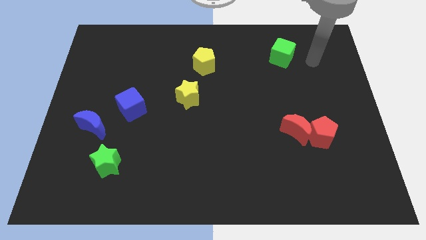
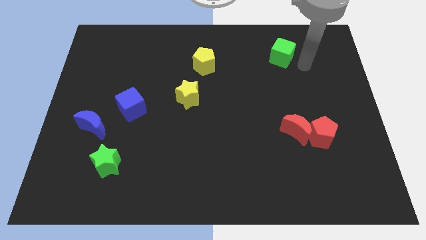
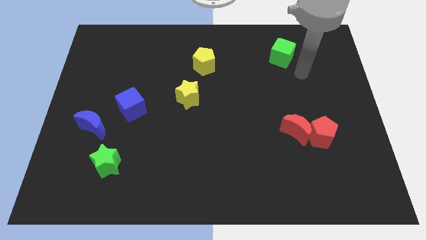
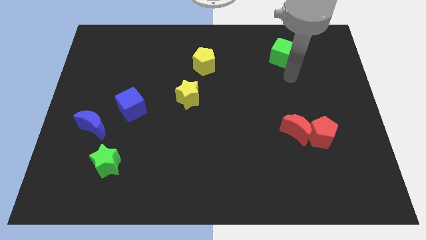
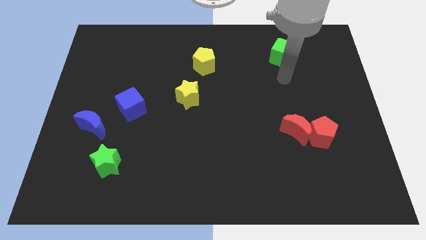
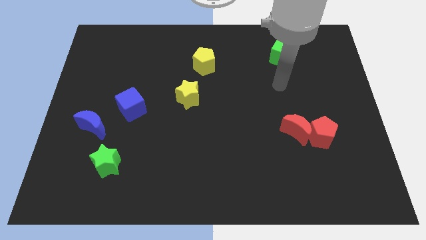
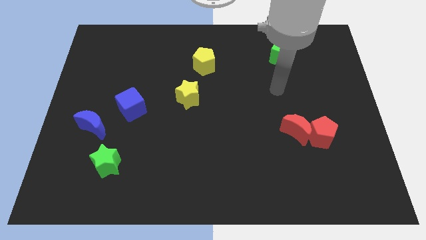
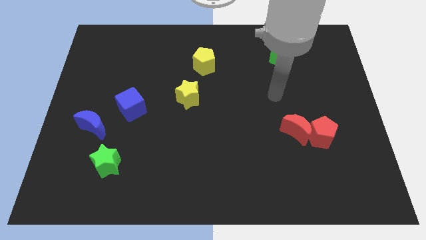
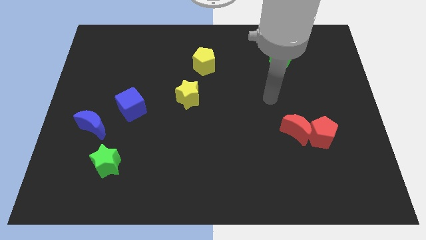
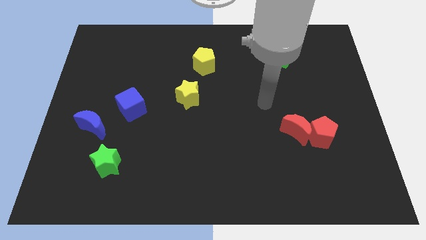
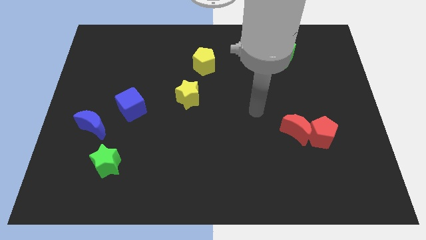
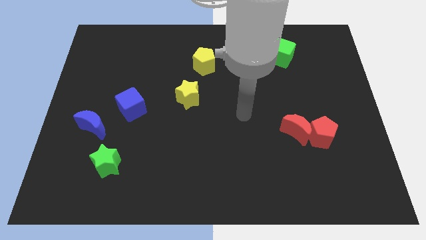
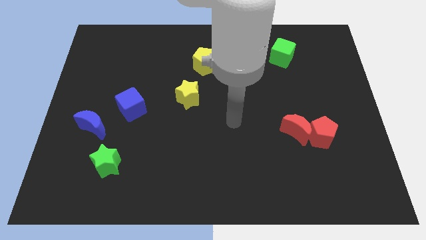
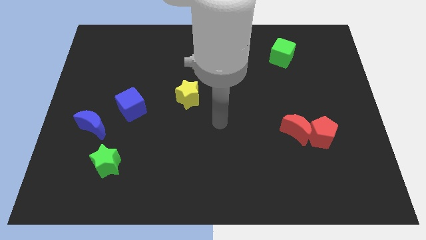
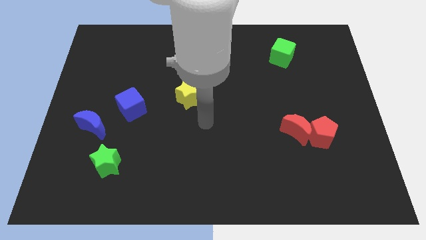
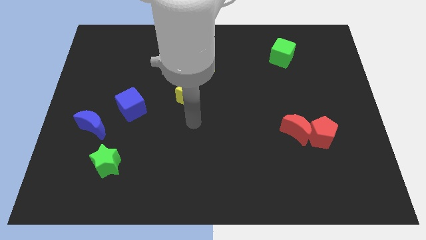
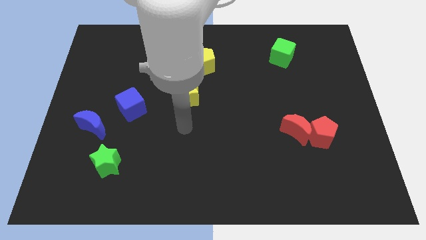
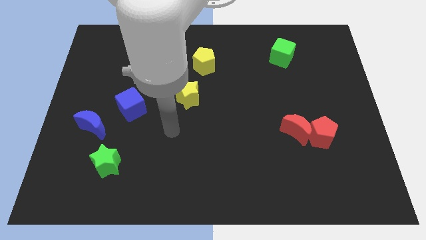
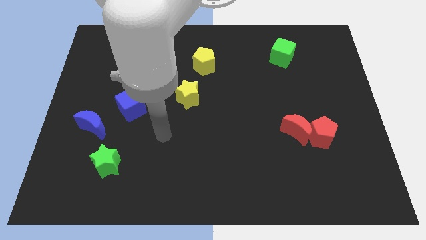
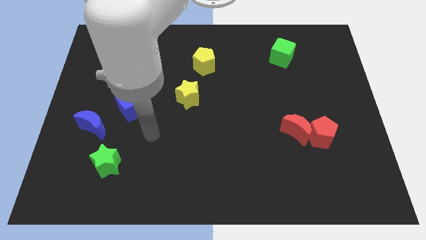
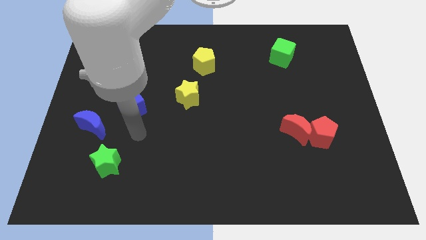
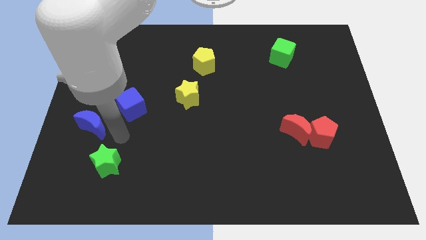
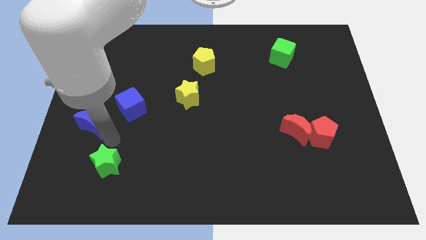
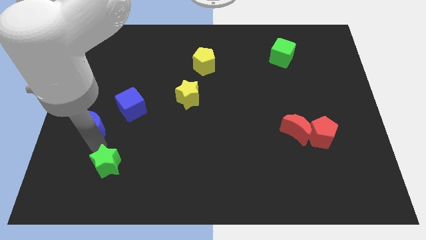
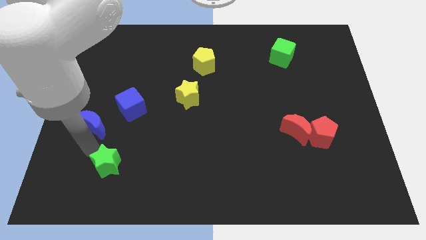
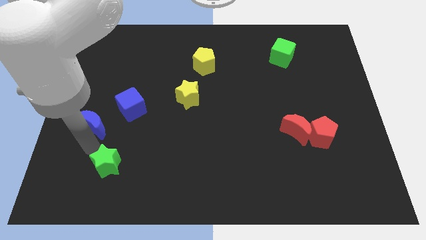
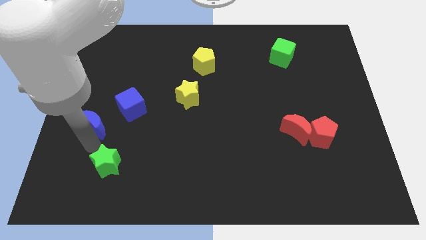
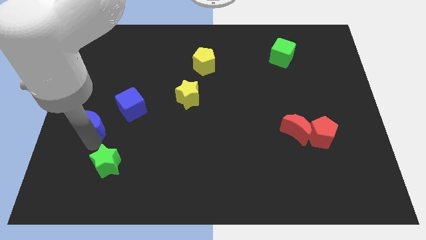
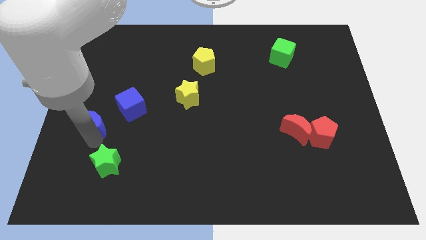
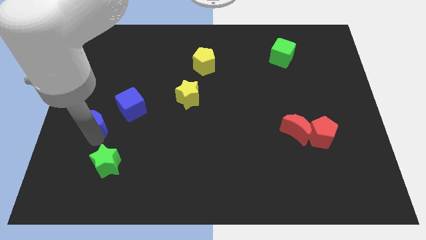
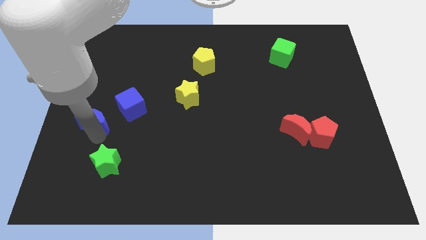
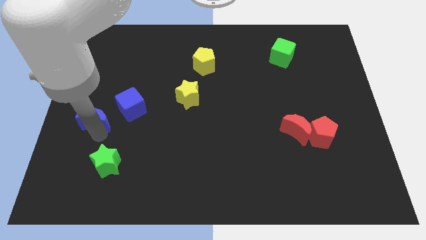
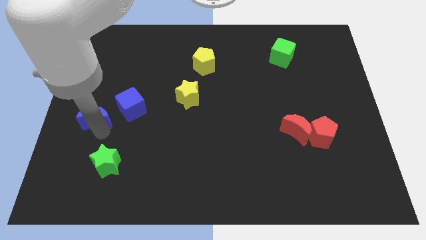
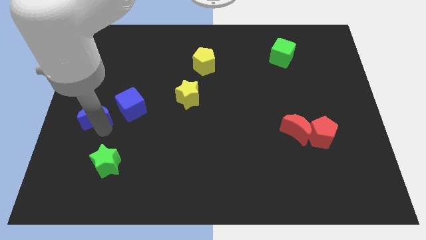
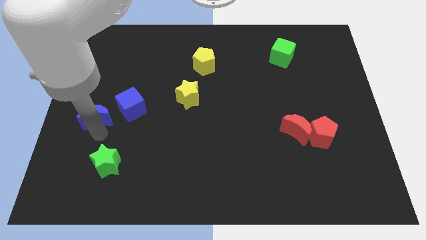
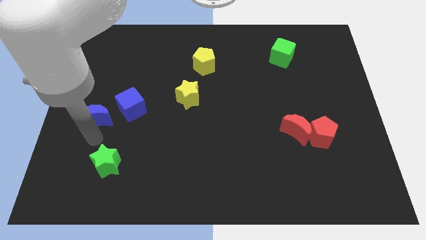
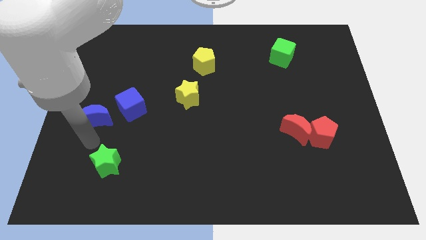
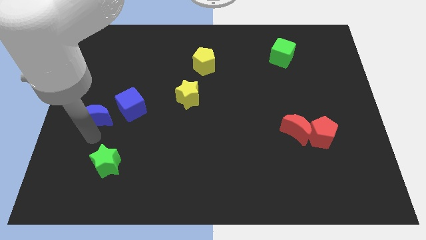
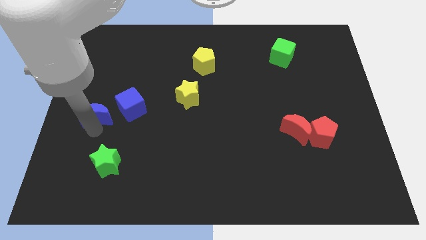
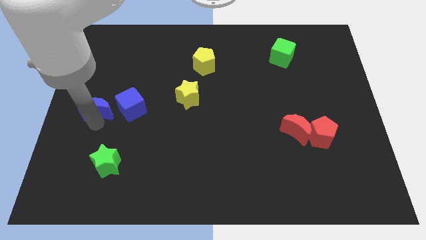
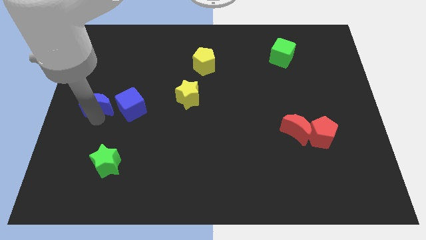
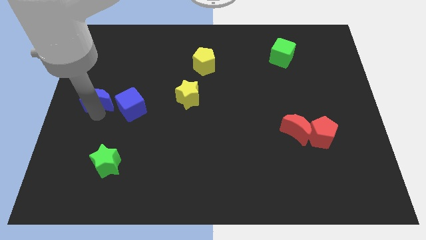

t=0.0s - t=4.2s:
slightly move the blue moon up

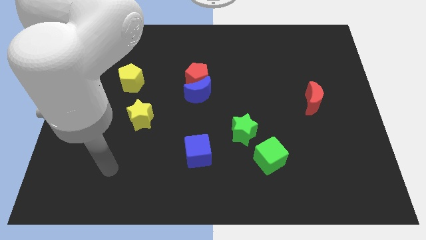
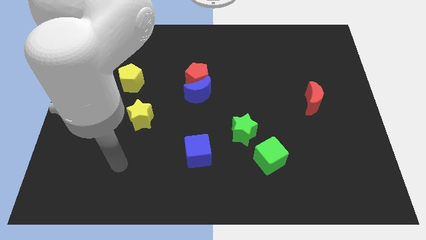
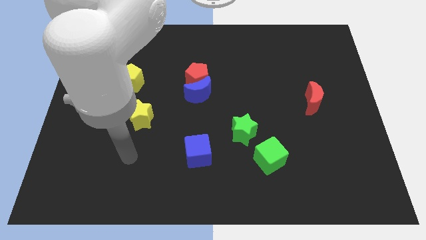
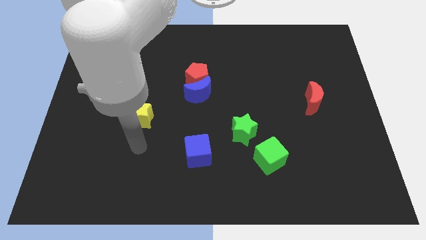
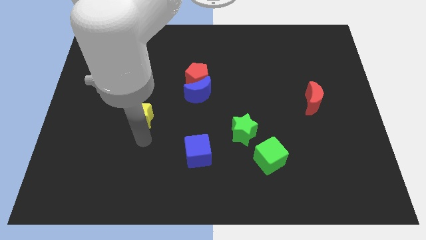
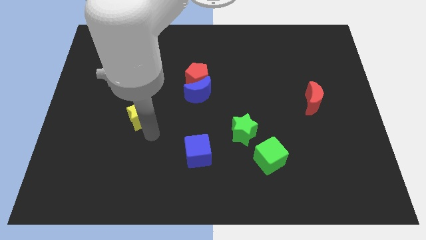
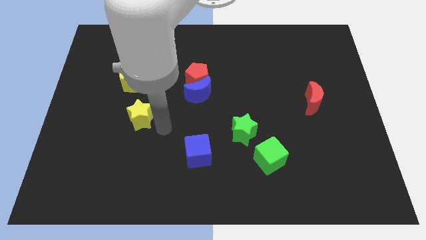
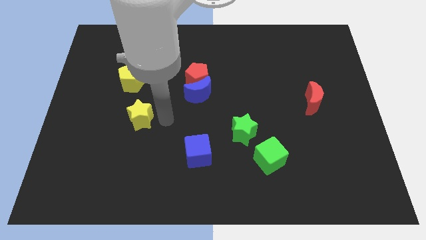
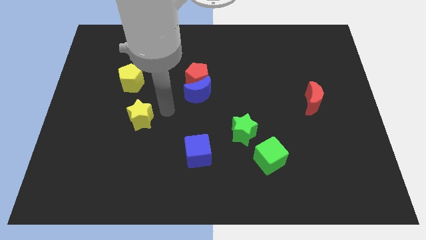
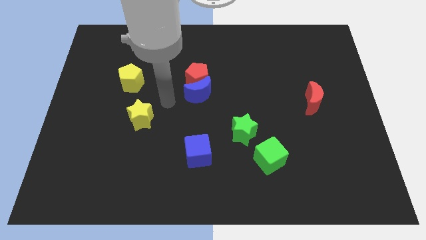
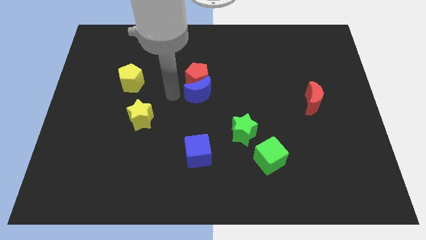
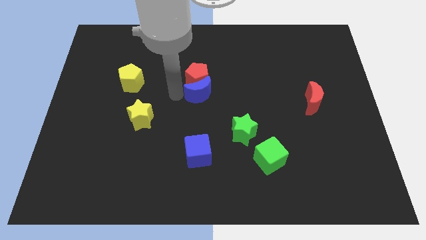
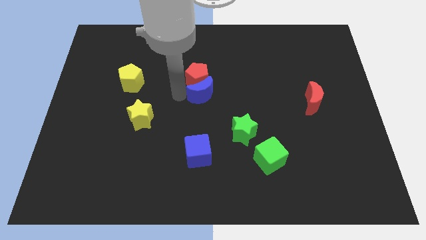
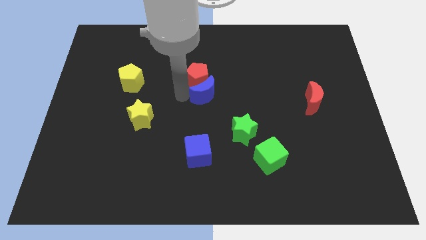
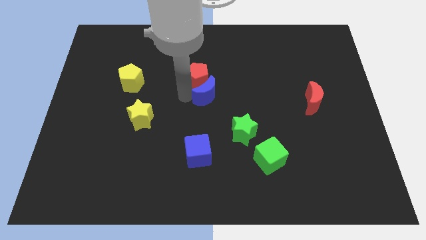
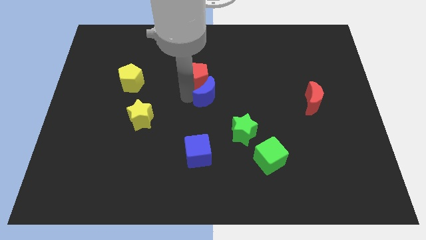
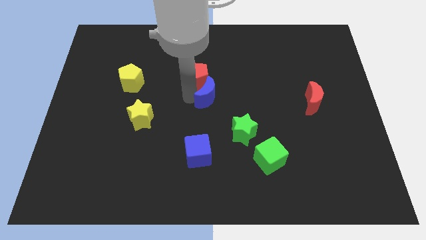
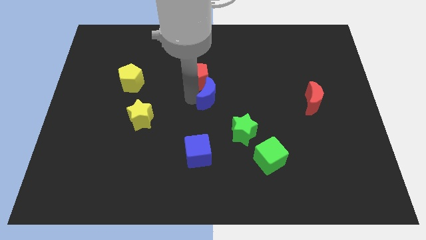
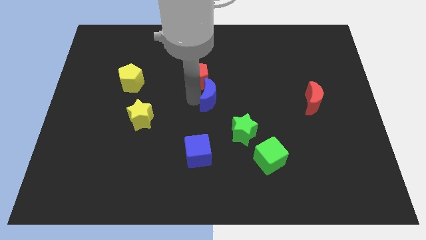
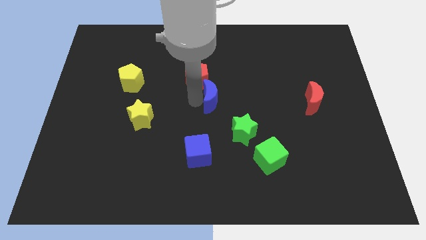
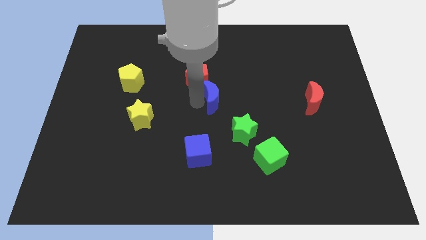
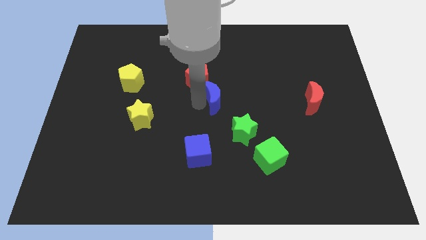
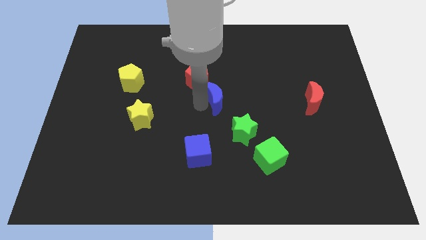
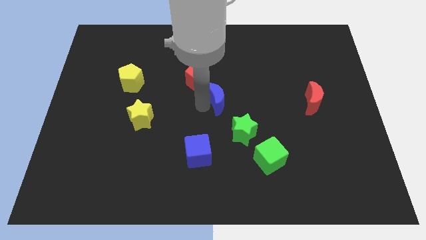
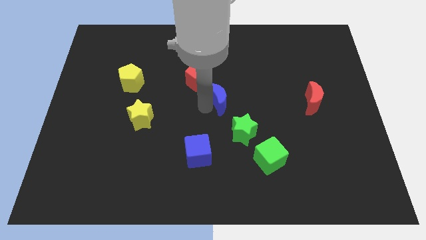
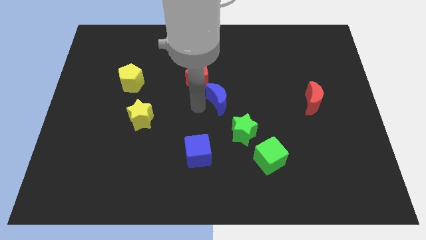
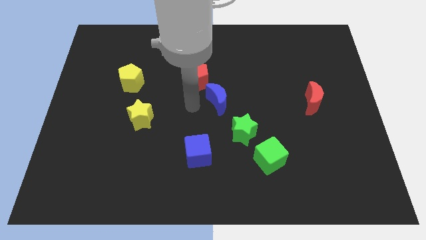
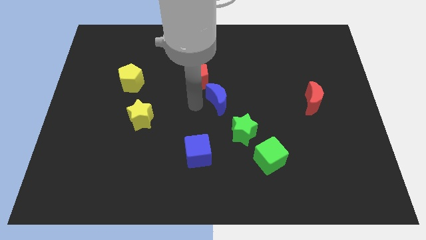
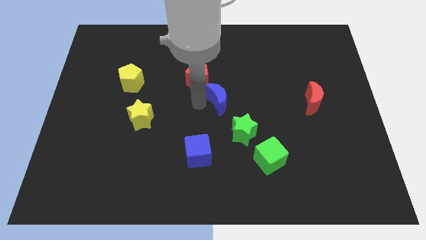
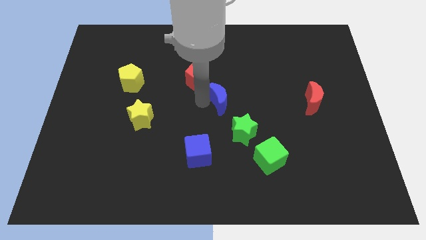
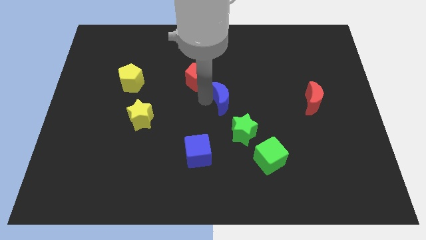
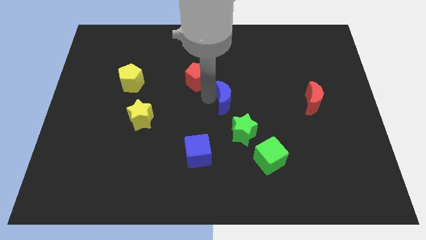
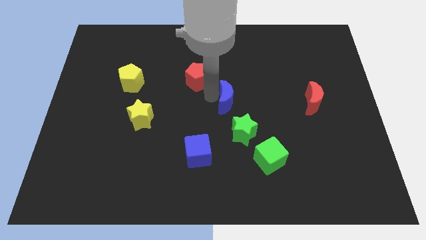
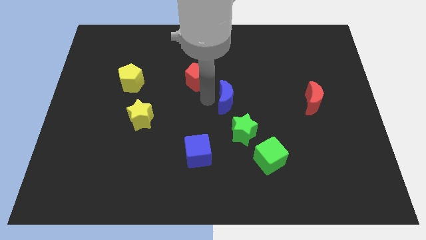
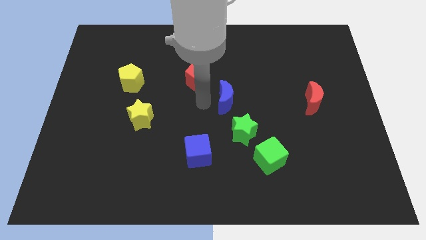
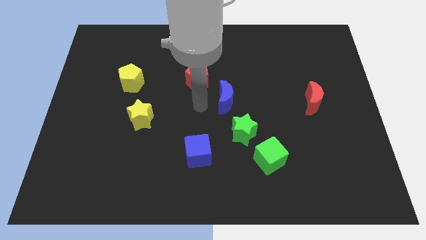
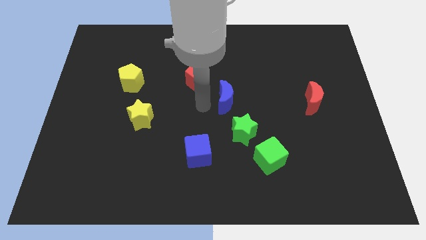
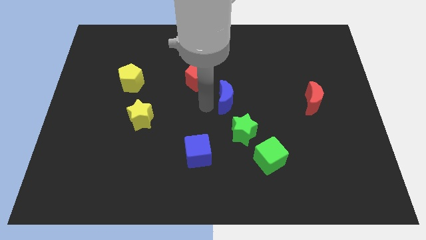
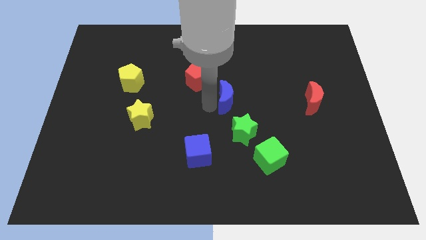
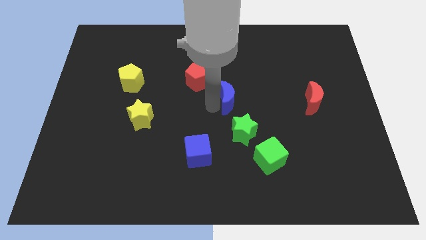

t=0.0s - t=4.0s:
slide the blue moon to the right somewhat
